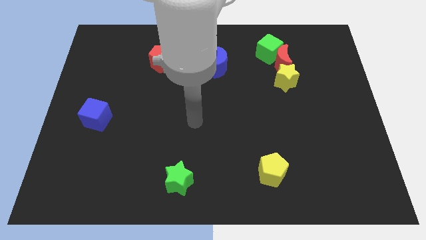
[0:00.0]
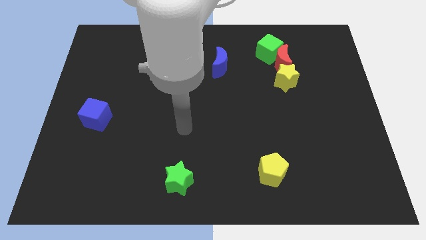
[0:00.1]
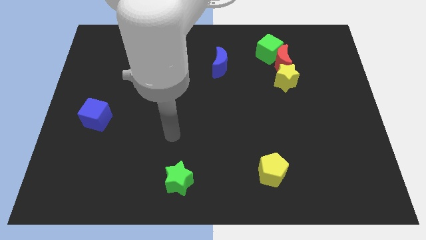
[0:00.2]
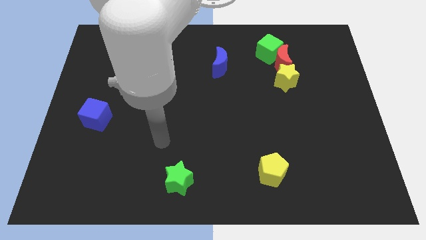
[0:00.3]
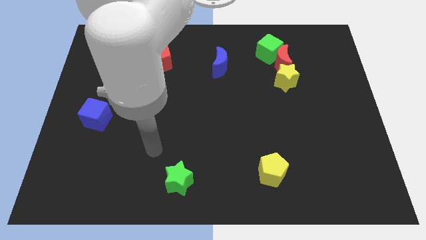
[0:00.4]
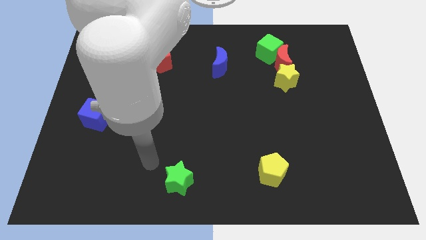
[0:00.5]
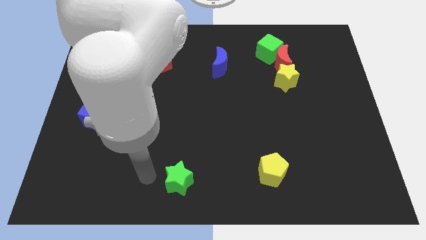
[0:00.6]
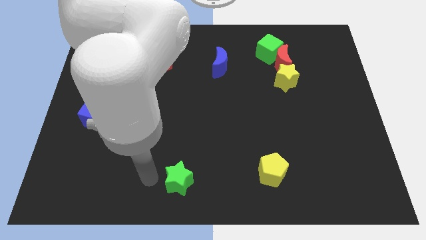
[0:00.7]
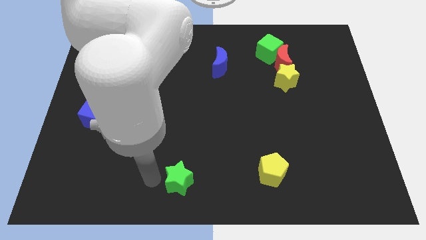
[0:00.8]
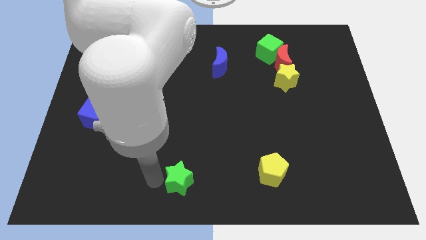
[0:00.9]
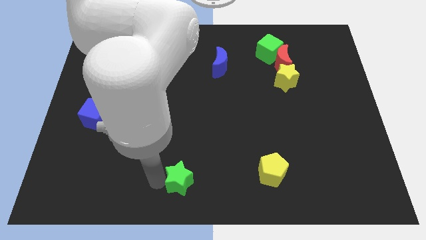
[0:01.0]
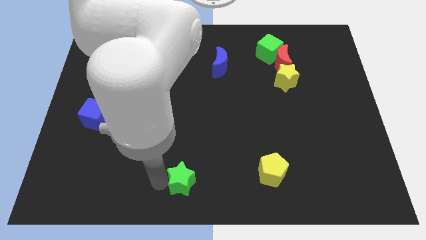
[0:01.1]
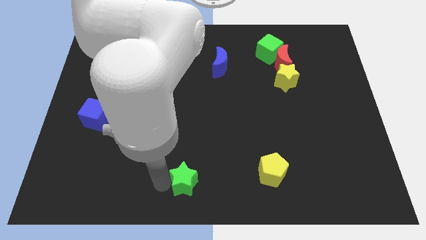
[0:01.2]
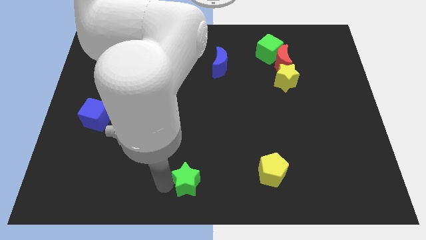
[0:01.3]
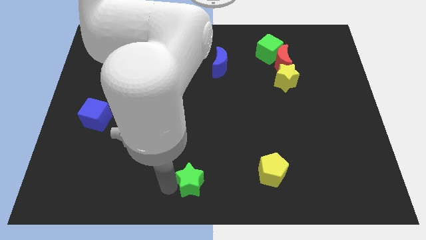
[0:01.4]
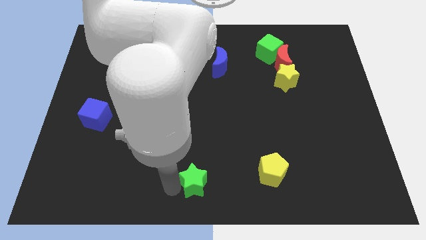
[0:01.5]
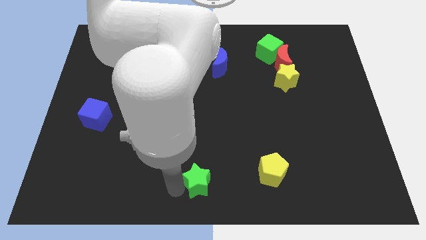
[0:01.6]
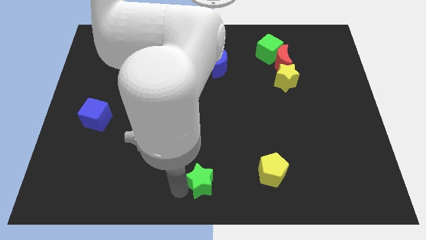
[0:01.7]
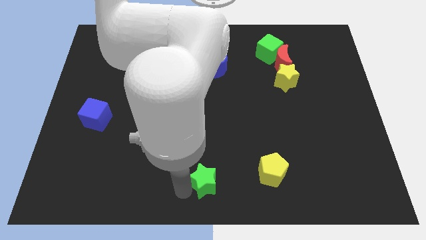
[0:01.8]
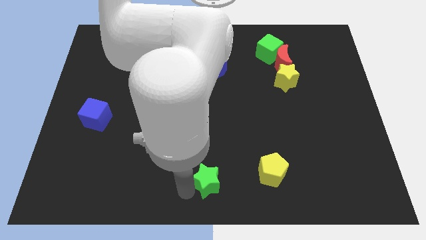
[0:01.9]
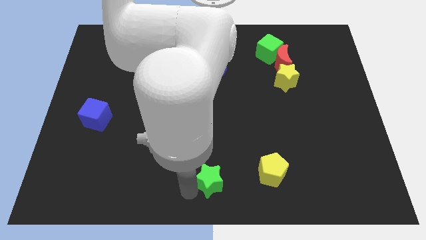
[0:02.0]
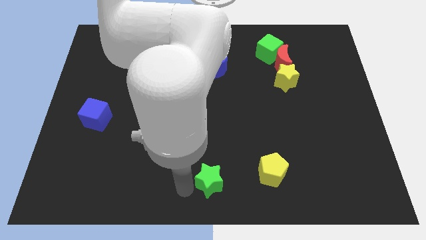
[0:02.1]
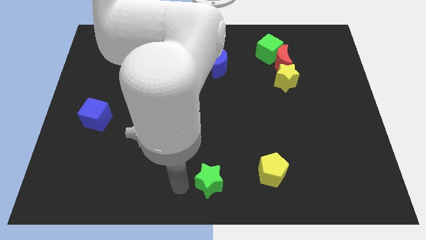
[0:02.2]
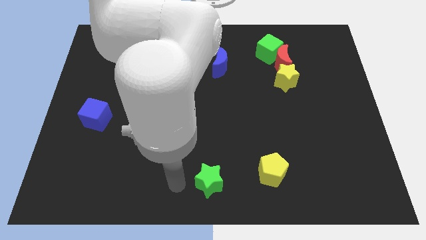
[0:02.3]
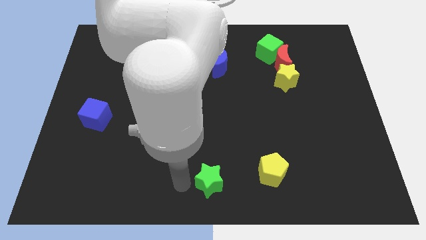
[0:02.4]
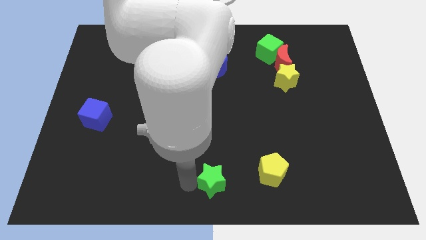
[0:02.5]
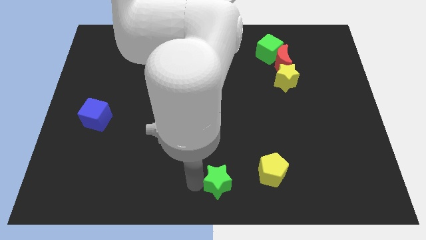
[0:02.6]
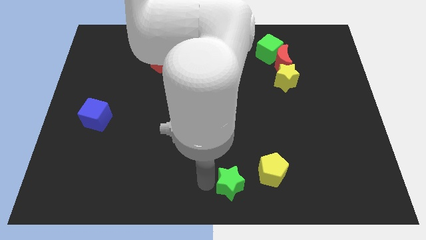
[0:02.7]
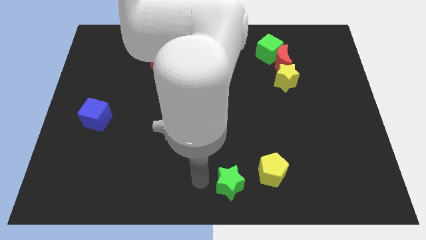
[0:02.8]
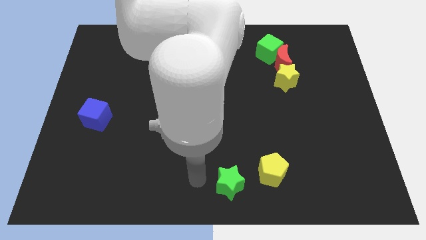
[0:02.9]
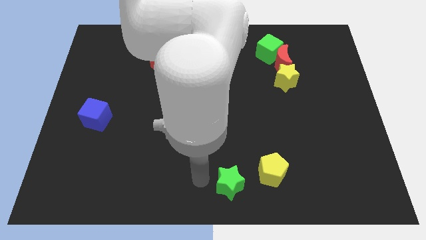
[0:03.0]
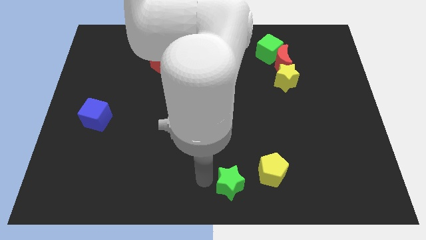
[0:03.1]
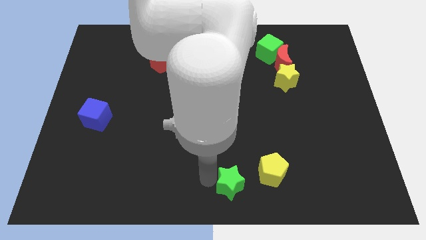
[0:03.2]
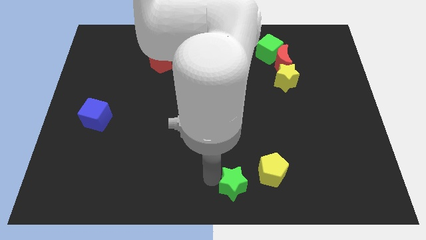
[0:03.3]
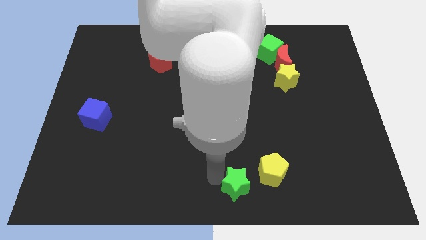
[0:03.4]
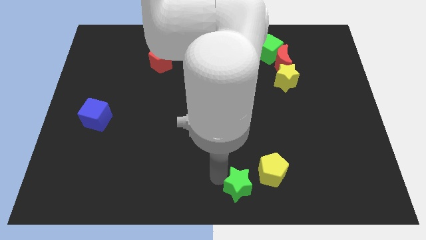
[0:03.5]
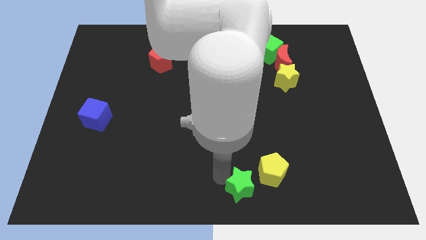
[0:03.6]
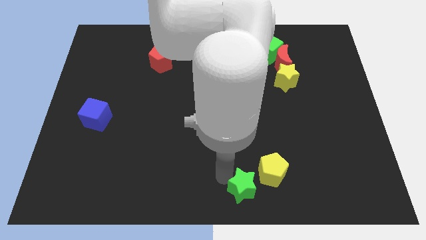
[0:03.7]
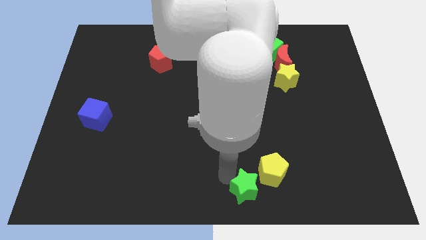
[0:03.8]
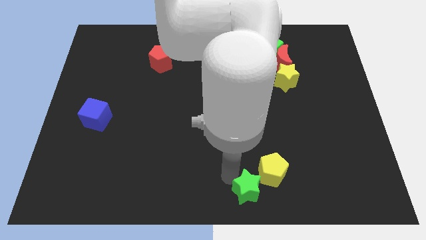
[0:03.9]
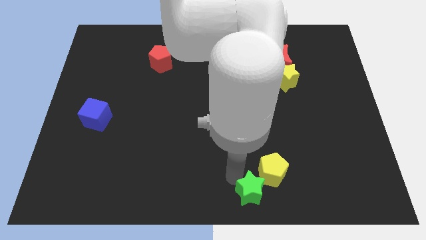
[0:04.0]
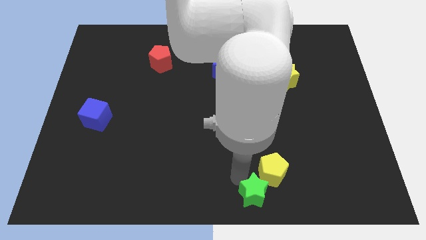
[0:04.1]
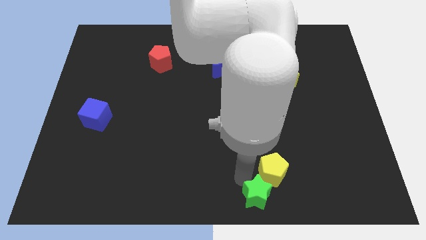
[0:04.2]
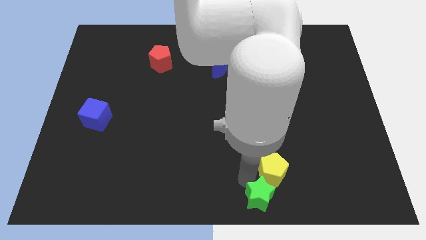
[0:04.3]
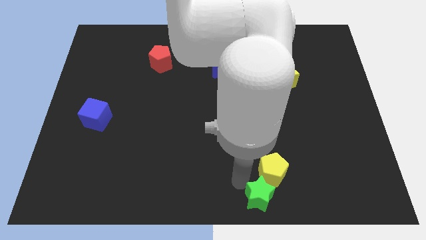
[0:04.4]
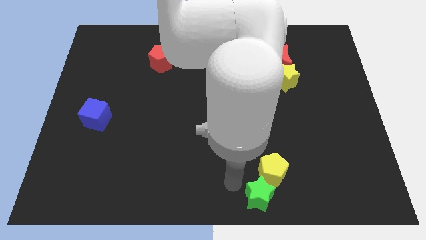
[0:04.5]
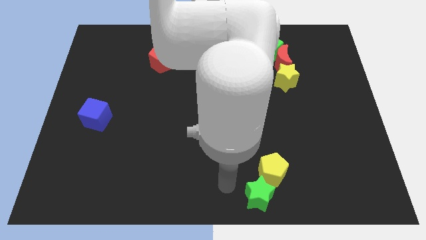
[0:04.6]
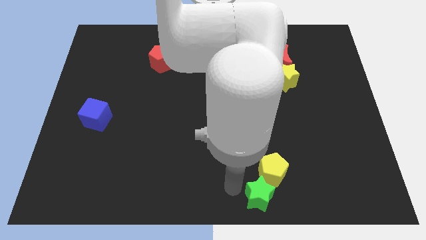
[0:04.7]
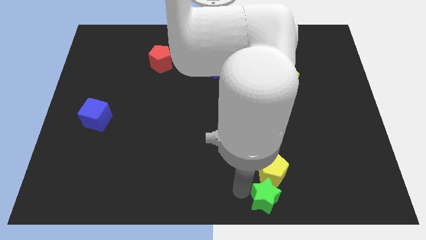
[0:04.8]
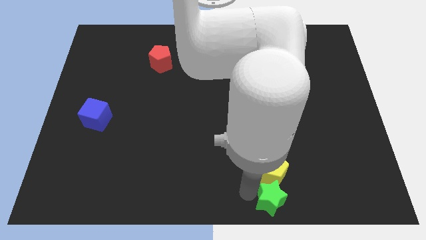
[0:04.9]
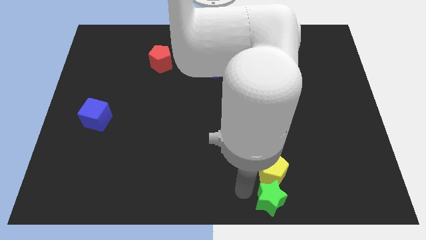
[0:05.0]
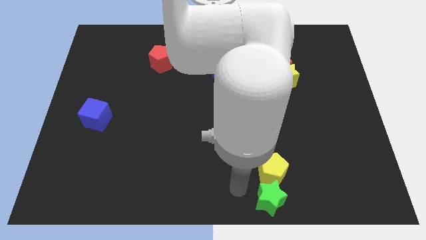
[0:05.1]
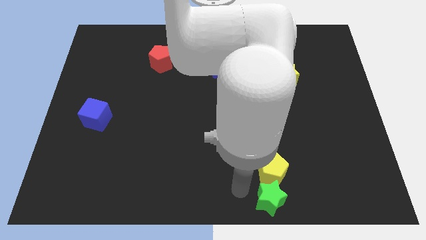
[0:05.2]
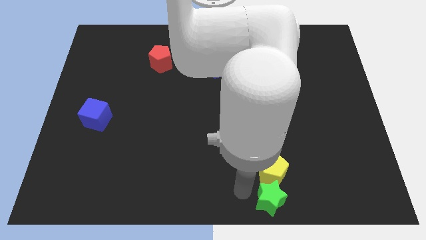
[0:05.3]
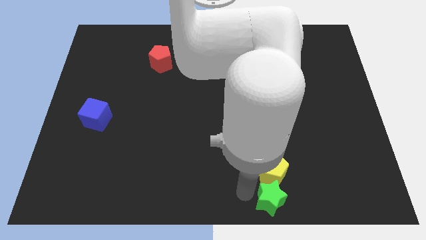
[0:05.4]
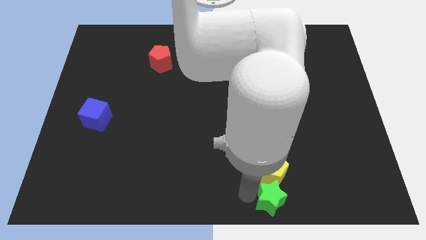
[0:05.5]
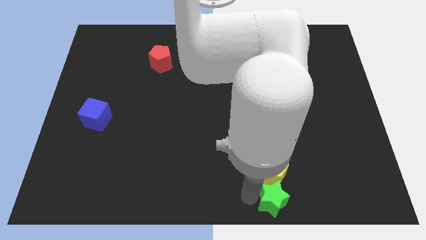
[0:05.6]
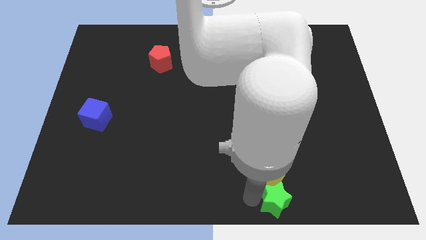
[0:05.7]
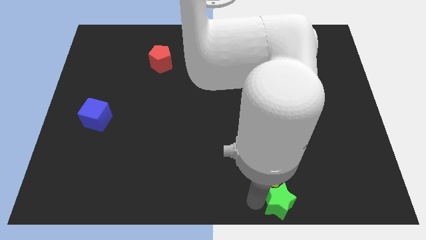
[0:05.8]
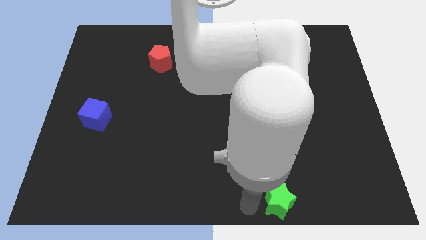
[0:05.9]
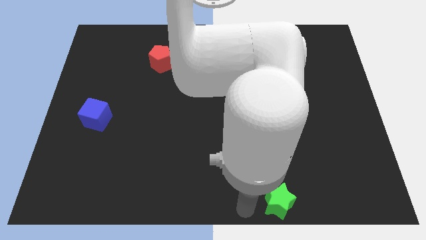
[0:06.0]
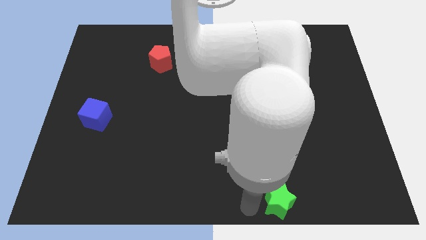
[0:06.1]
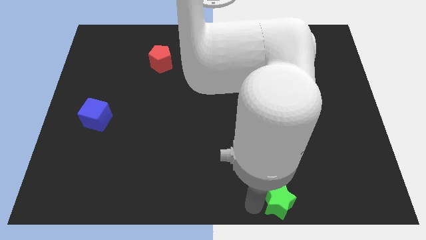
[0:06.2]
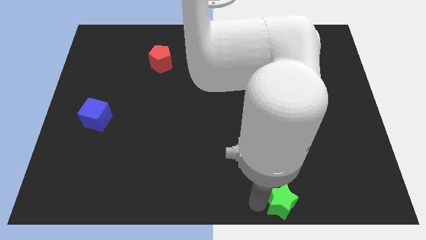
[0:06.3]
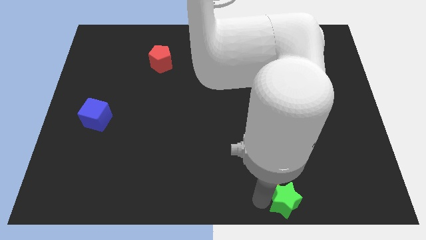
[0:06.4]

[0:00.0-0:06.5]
move the green star to the right

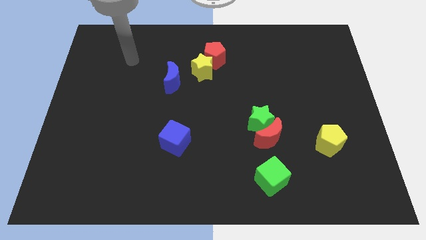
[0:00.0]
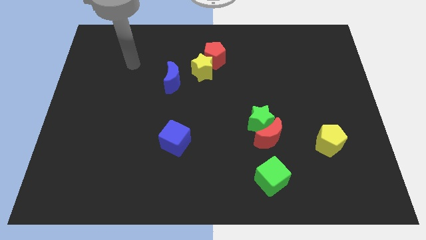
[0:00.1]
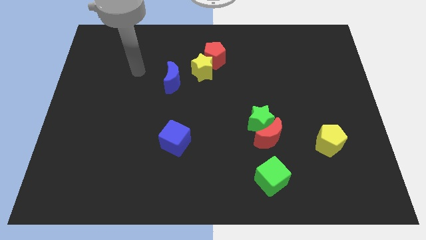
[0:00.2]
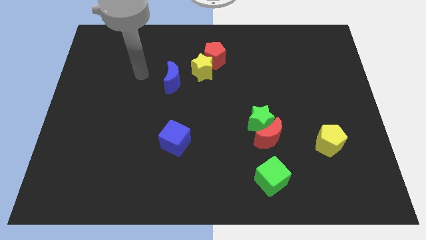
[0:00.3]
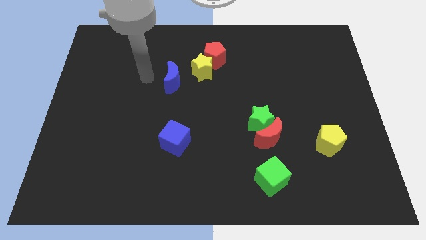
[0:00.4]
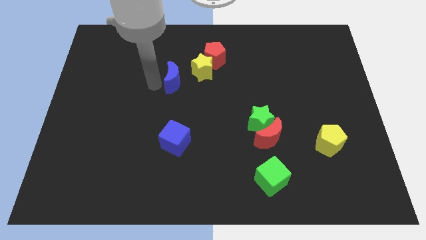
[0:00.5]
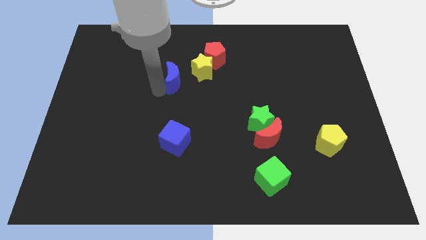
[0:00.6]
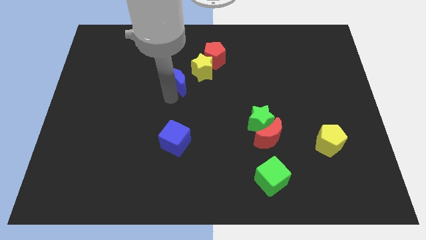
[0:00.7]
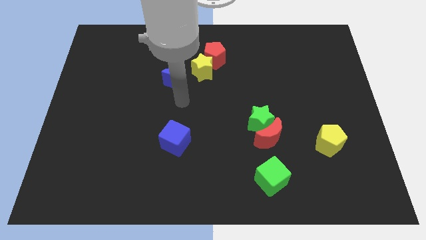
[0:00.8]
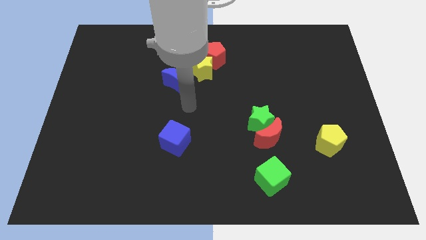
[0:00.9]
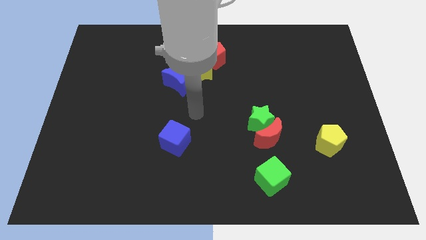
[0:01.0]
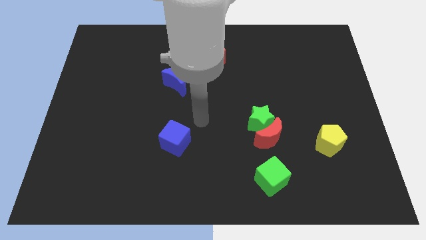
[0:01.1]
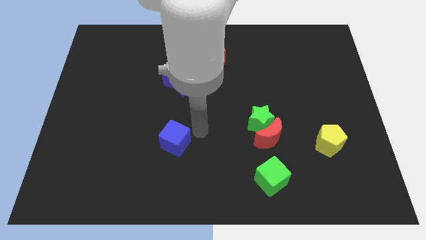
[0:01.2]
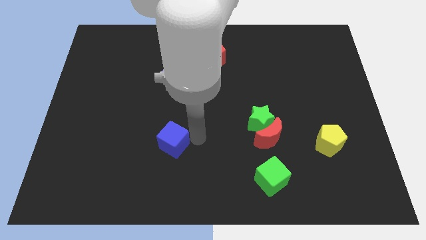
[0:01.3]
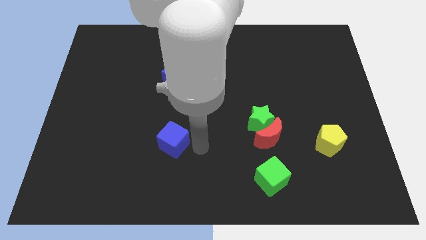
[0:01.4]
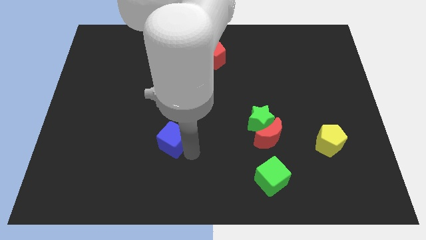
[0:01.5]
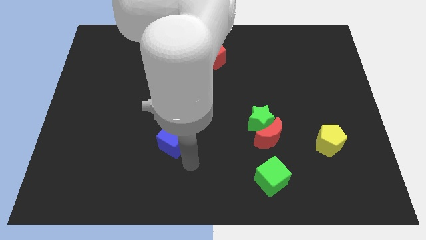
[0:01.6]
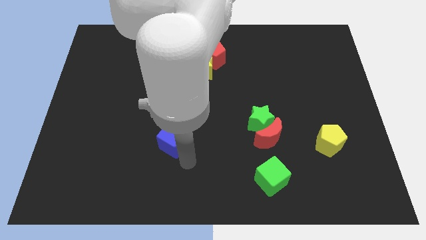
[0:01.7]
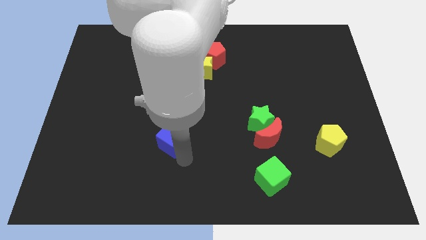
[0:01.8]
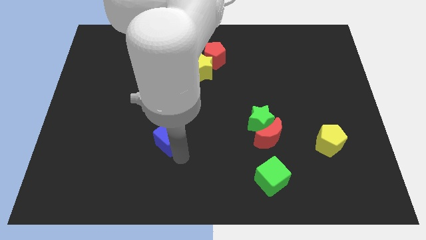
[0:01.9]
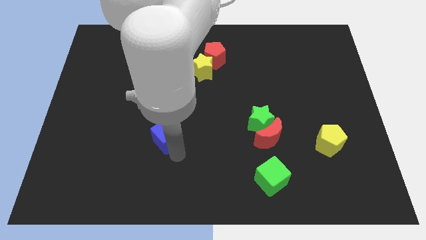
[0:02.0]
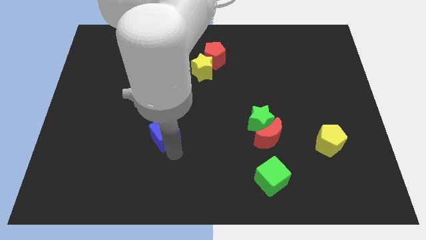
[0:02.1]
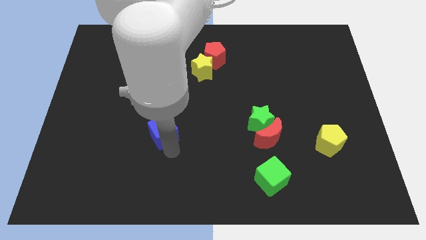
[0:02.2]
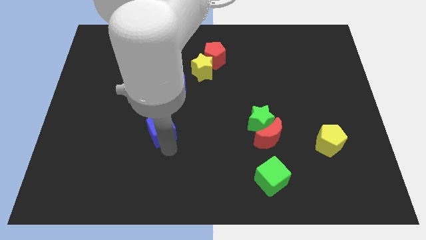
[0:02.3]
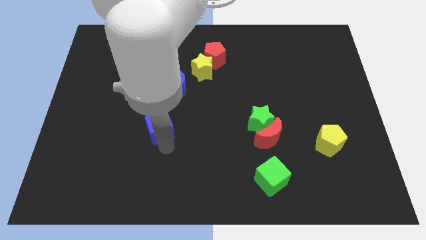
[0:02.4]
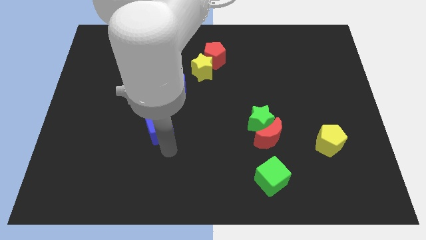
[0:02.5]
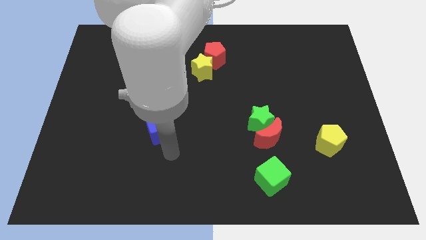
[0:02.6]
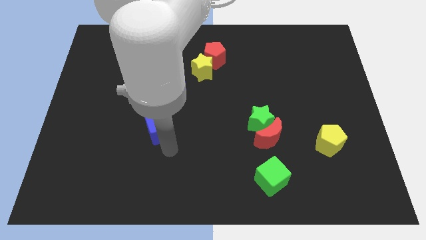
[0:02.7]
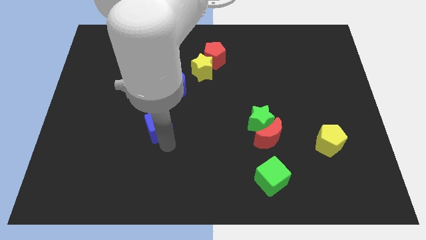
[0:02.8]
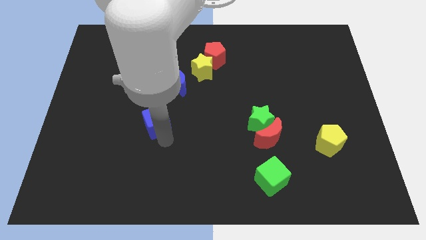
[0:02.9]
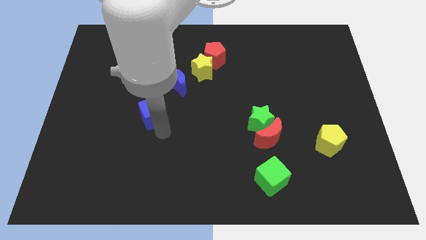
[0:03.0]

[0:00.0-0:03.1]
slide the blue cube a bit upwards and then to the left
